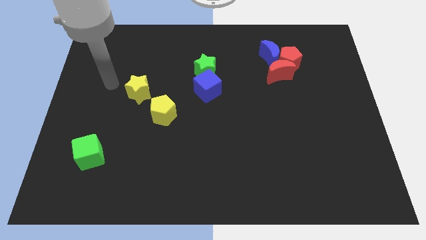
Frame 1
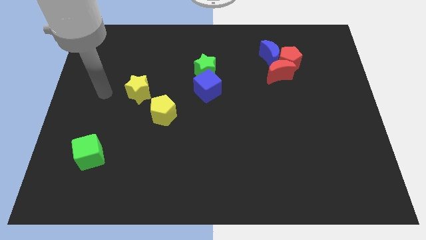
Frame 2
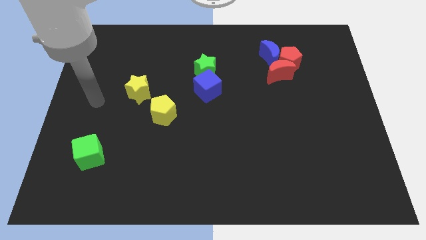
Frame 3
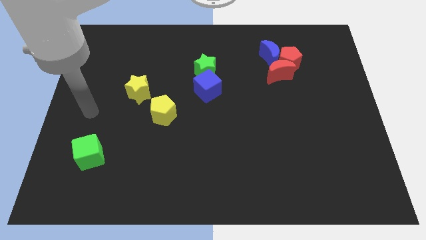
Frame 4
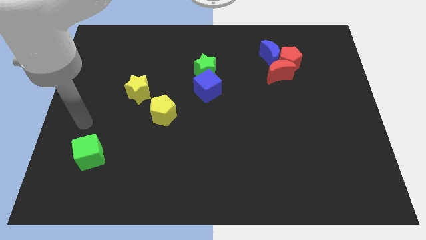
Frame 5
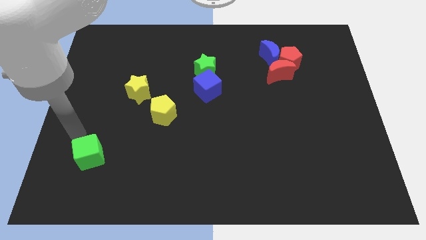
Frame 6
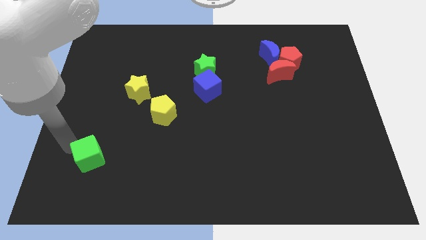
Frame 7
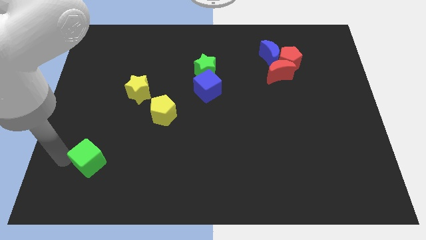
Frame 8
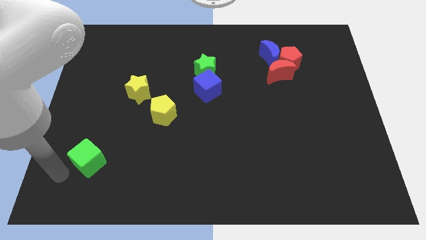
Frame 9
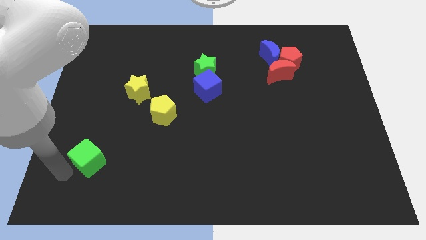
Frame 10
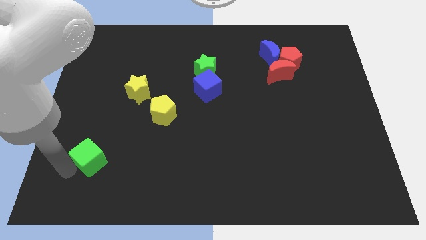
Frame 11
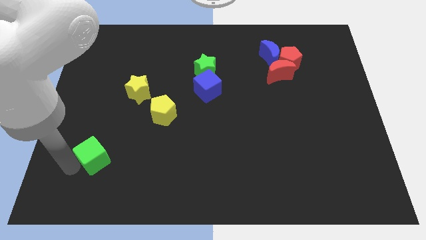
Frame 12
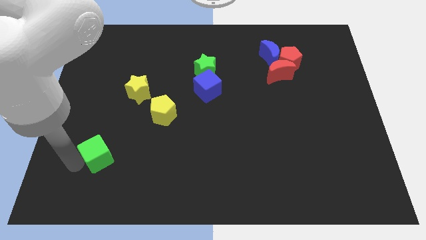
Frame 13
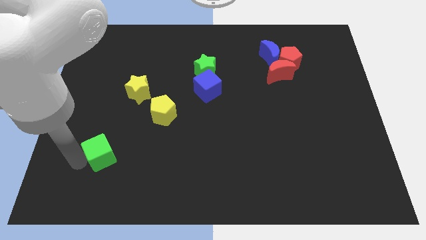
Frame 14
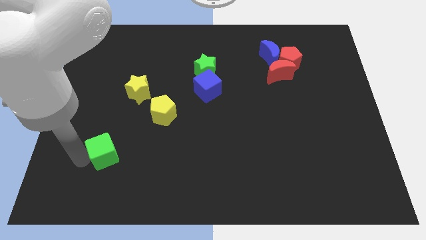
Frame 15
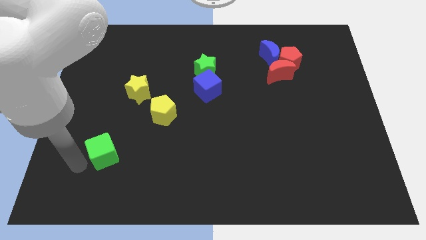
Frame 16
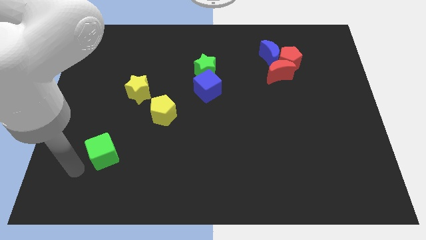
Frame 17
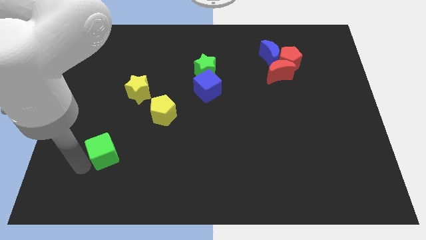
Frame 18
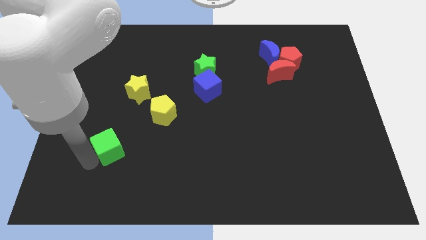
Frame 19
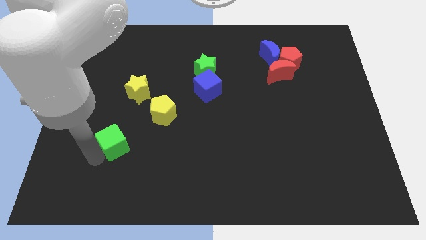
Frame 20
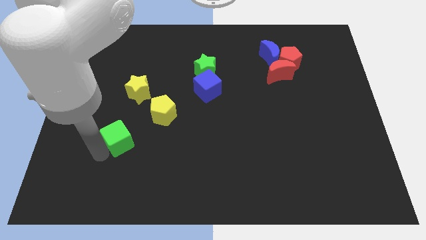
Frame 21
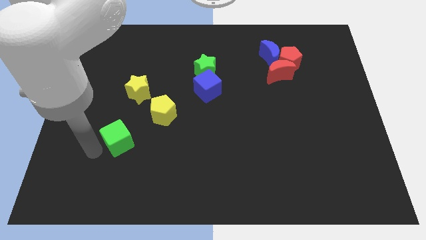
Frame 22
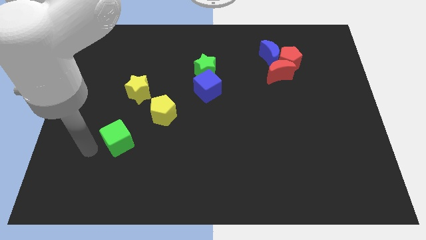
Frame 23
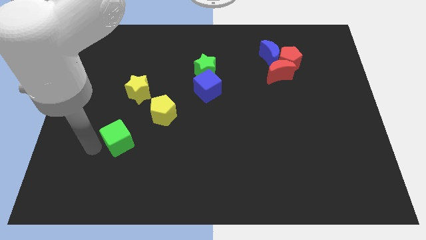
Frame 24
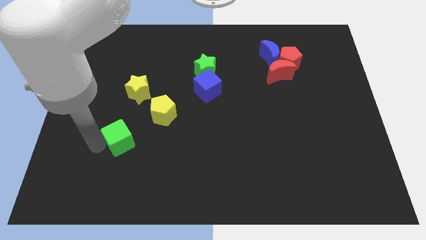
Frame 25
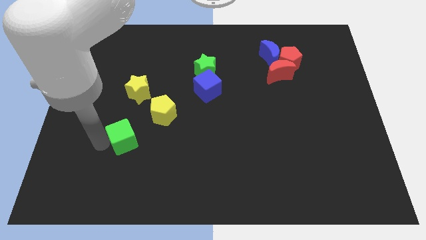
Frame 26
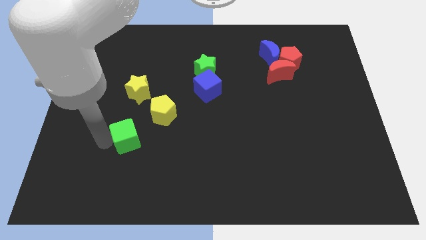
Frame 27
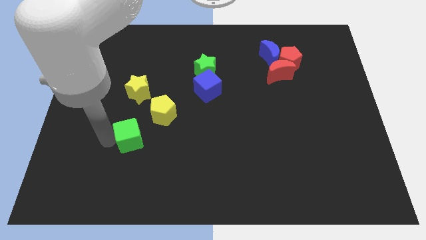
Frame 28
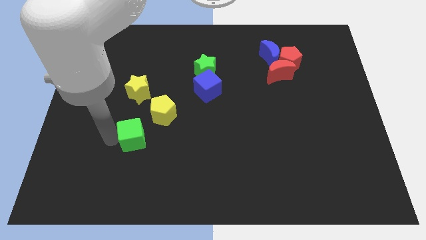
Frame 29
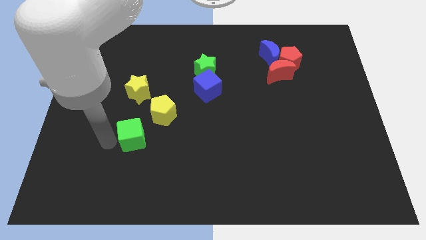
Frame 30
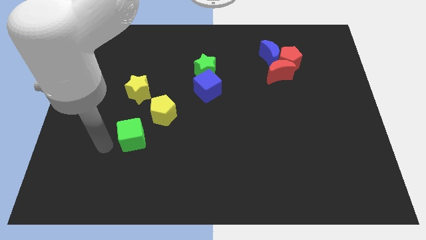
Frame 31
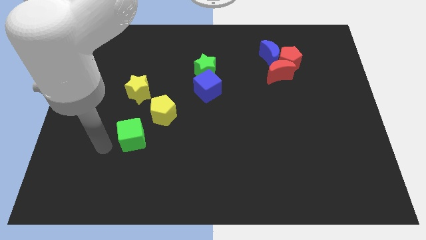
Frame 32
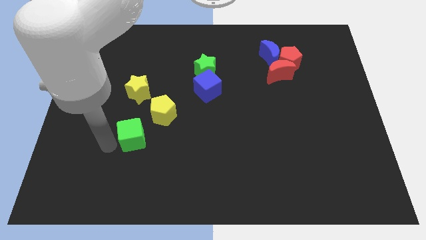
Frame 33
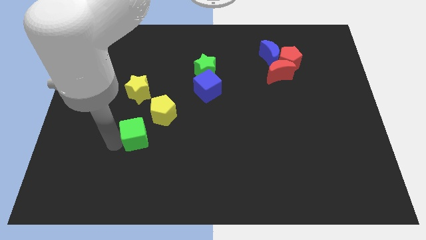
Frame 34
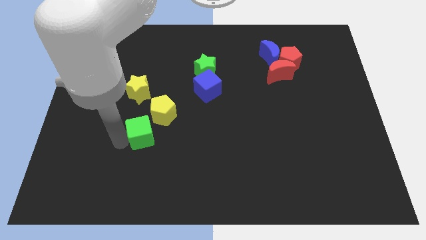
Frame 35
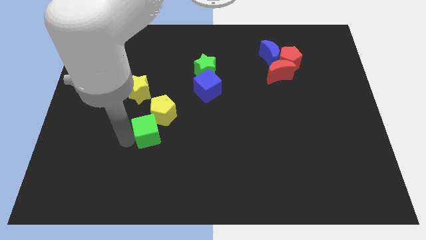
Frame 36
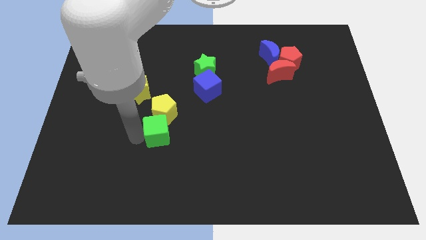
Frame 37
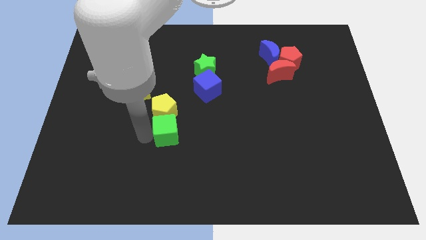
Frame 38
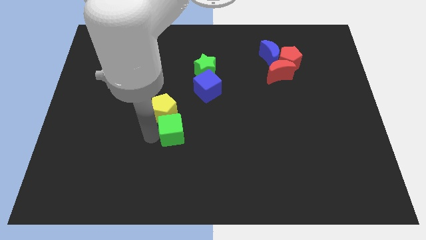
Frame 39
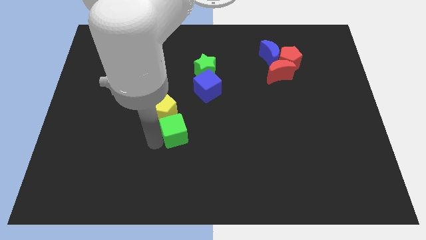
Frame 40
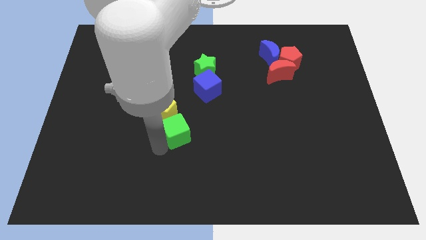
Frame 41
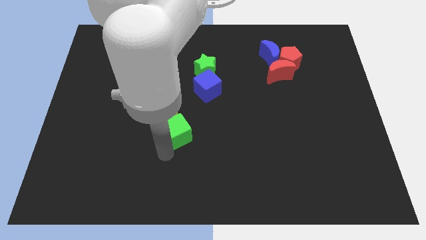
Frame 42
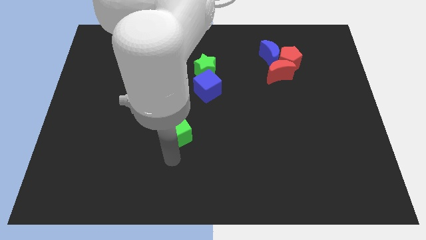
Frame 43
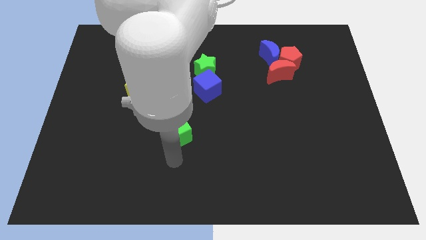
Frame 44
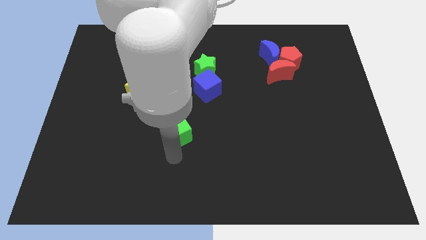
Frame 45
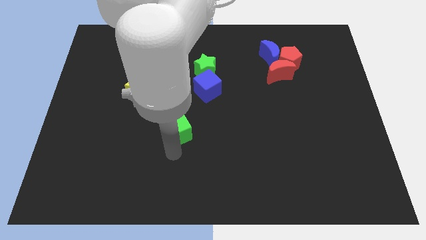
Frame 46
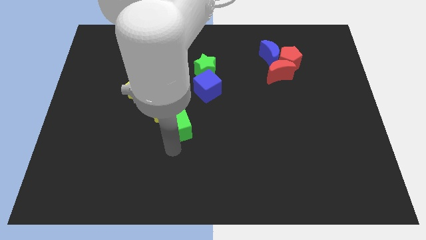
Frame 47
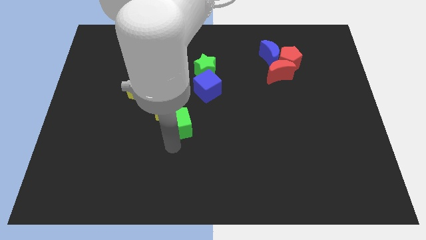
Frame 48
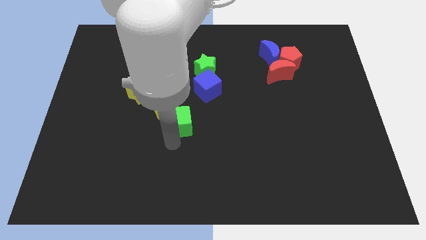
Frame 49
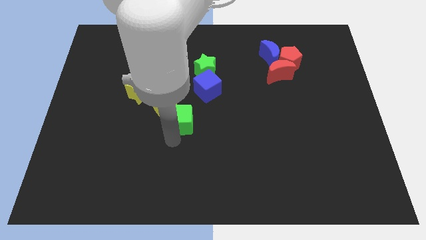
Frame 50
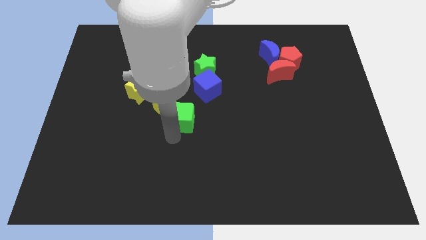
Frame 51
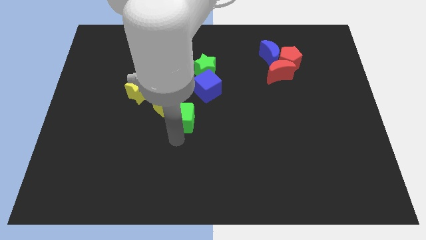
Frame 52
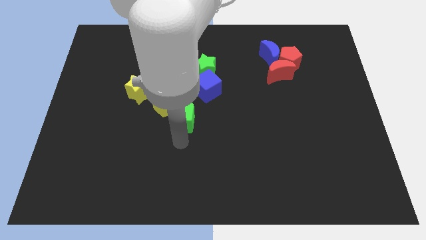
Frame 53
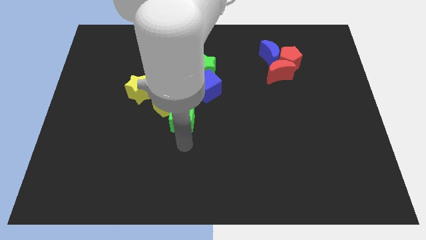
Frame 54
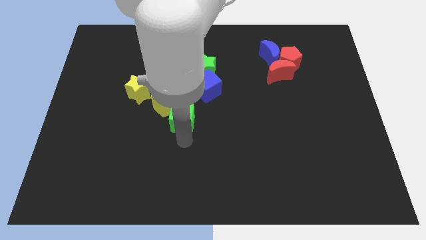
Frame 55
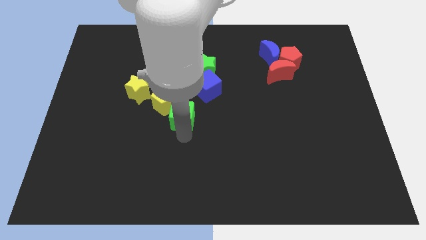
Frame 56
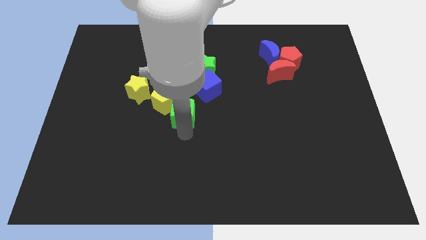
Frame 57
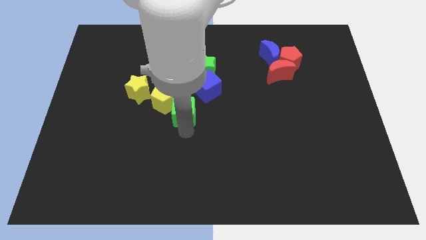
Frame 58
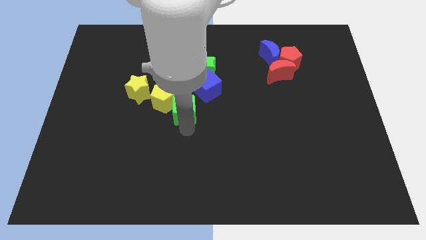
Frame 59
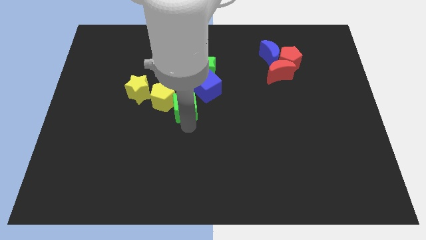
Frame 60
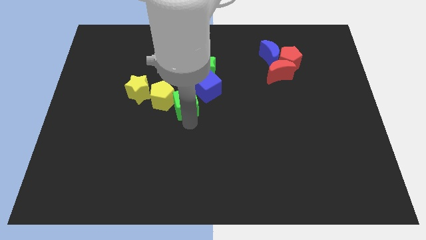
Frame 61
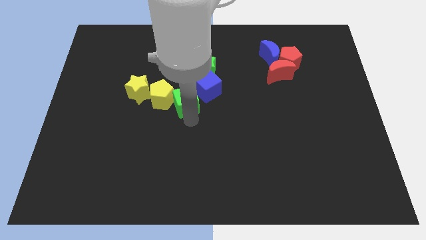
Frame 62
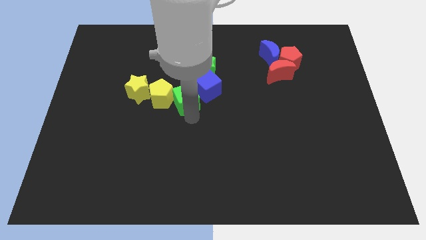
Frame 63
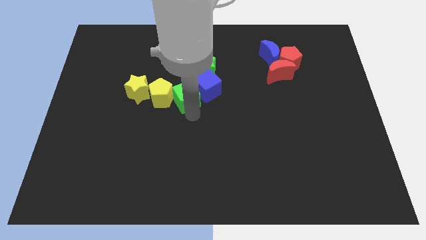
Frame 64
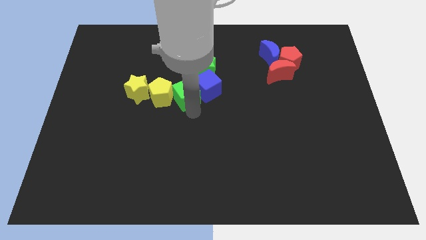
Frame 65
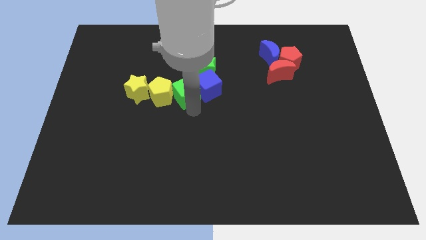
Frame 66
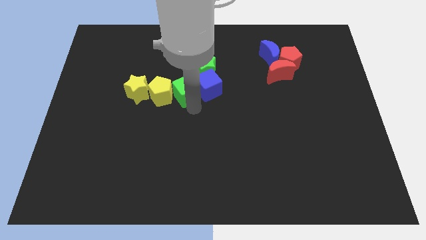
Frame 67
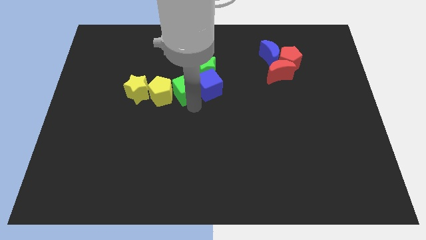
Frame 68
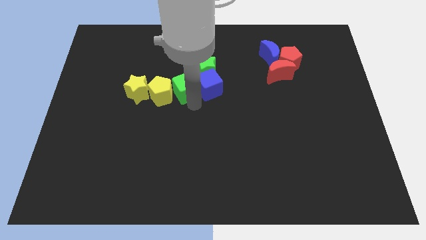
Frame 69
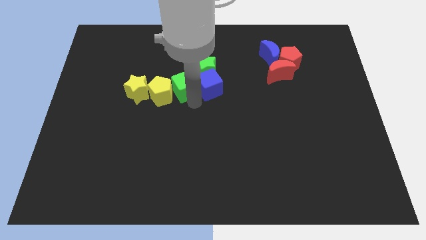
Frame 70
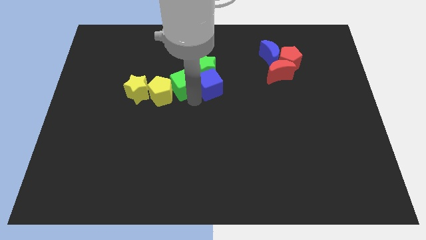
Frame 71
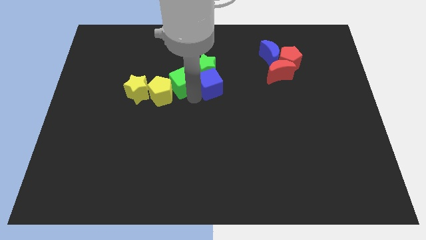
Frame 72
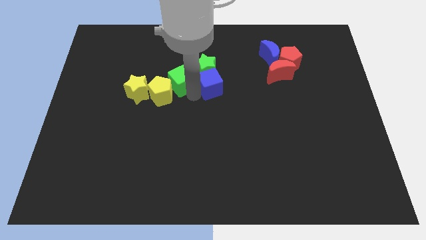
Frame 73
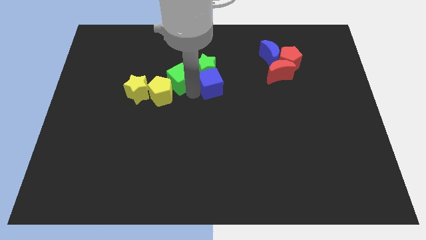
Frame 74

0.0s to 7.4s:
move the green cube diagonally up and to the right of the yellow star
